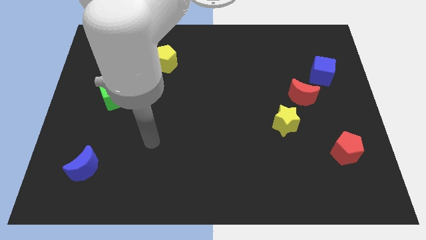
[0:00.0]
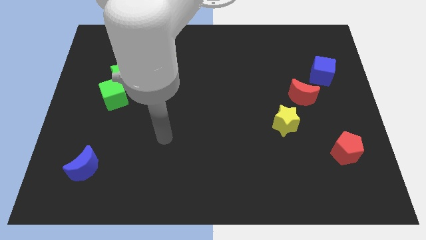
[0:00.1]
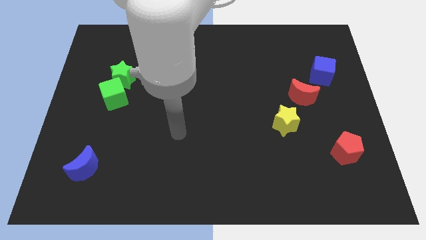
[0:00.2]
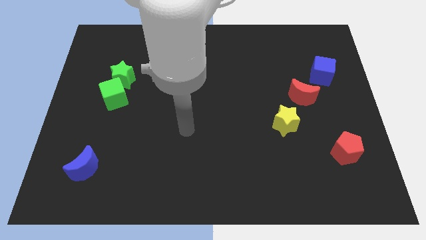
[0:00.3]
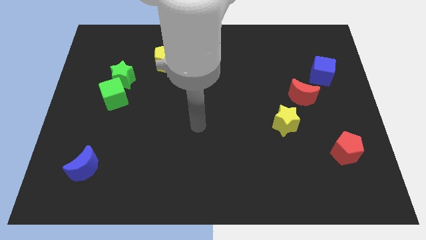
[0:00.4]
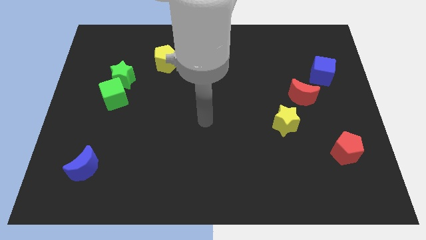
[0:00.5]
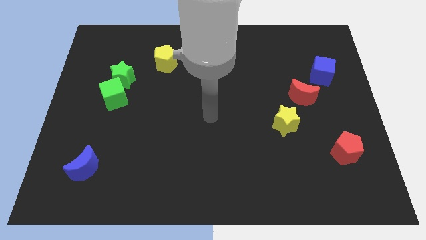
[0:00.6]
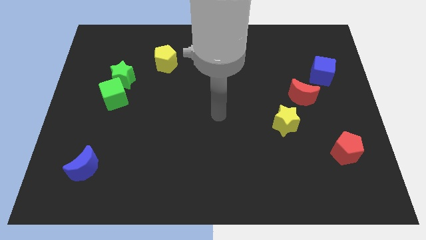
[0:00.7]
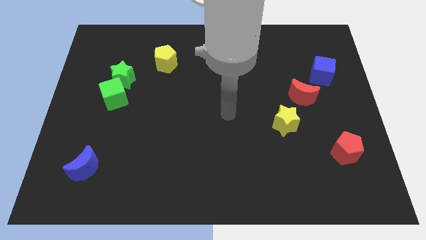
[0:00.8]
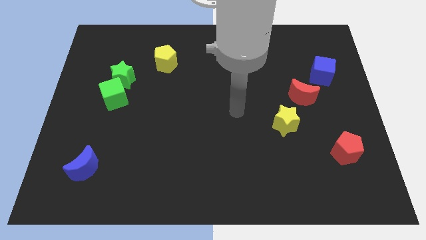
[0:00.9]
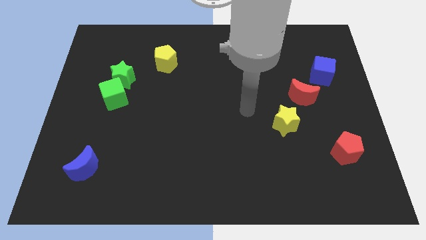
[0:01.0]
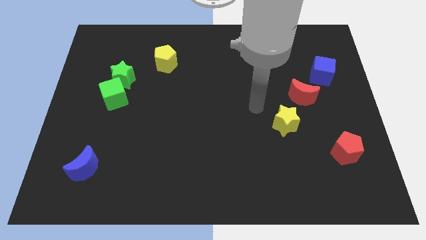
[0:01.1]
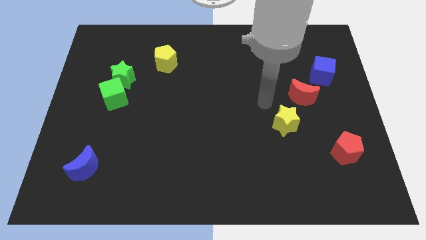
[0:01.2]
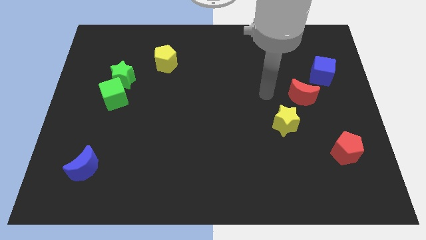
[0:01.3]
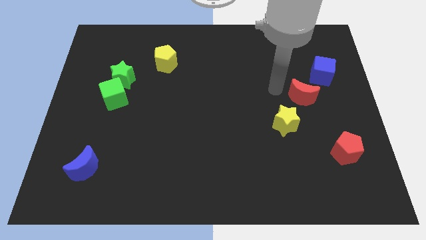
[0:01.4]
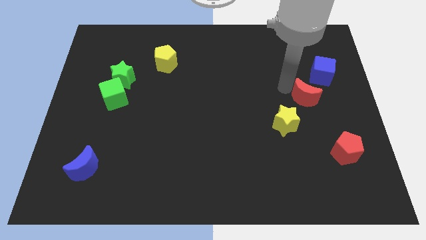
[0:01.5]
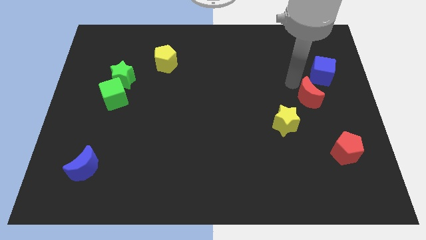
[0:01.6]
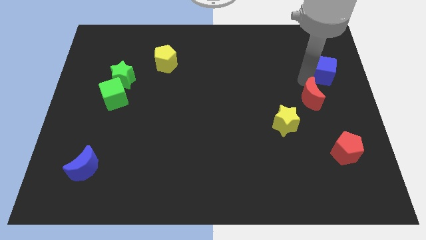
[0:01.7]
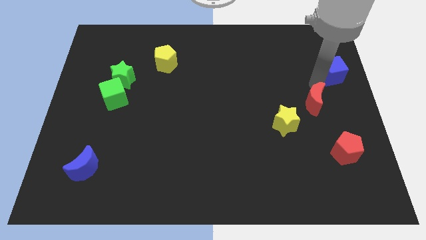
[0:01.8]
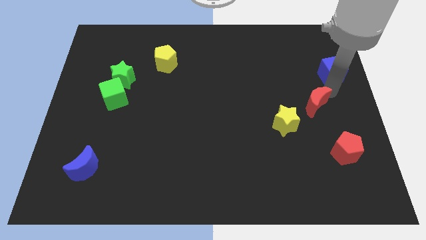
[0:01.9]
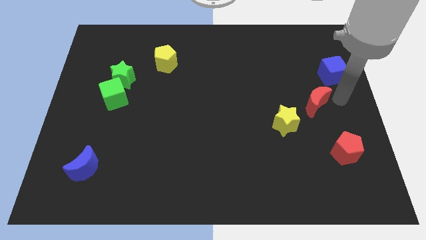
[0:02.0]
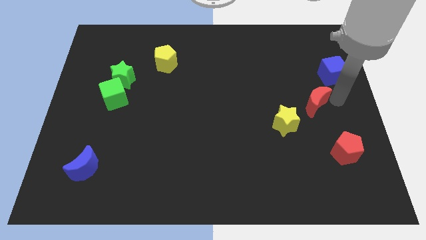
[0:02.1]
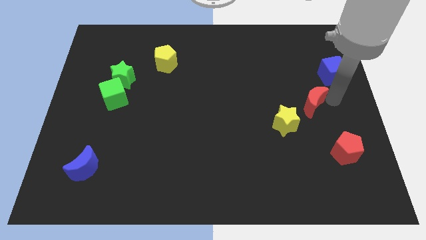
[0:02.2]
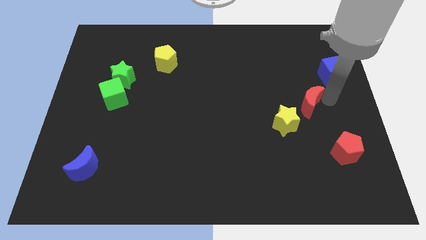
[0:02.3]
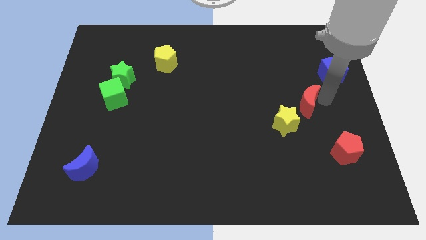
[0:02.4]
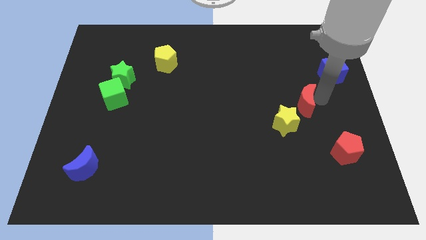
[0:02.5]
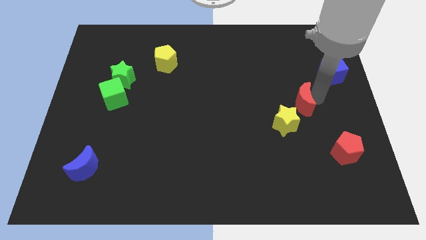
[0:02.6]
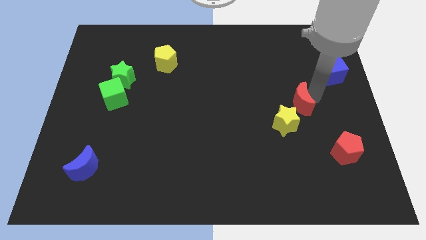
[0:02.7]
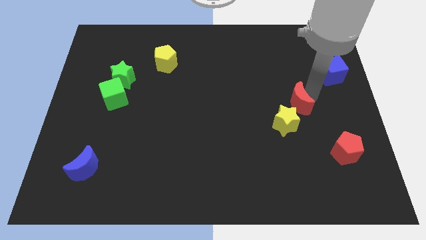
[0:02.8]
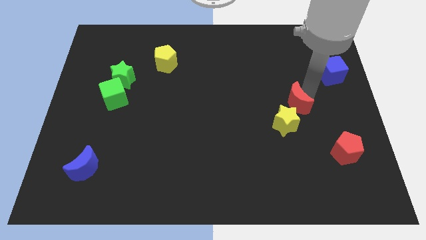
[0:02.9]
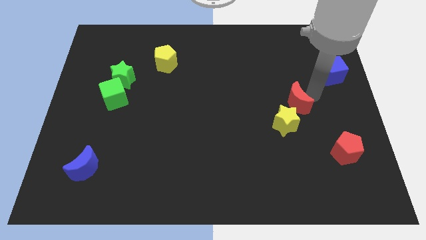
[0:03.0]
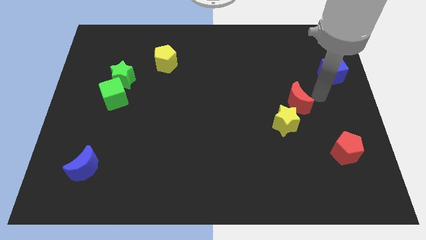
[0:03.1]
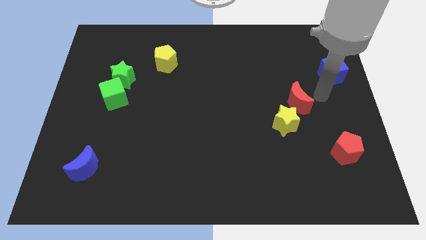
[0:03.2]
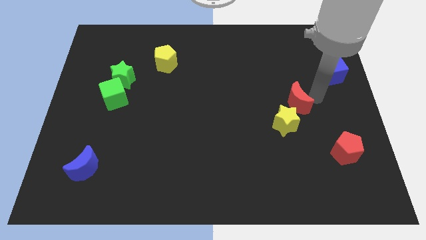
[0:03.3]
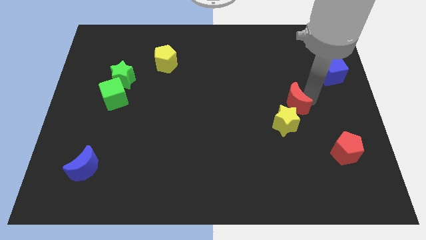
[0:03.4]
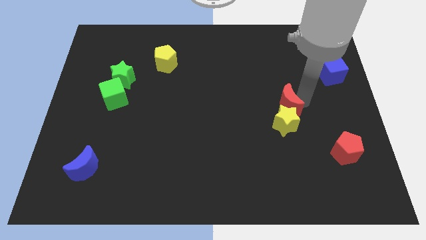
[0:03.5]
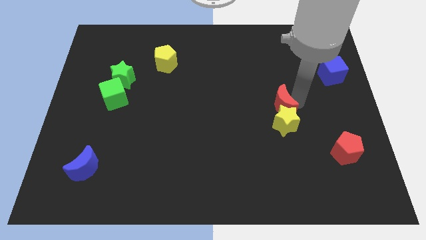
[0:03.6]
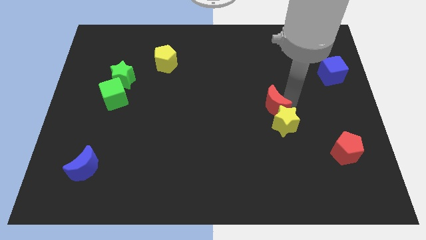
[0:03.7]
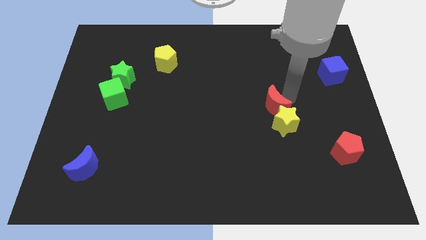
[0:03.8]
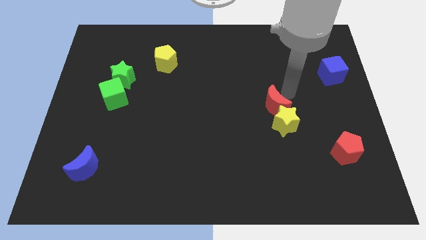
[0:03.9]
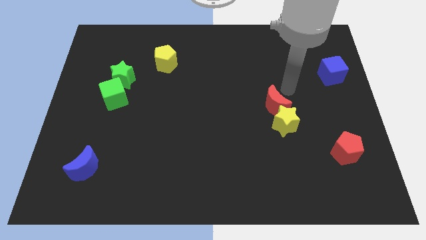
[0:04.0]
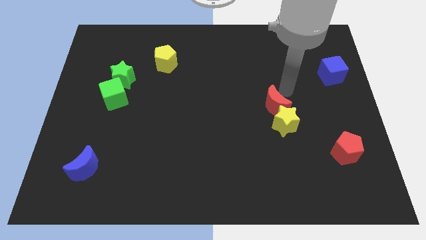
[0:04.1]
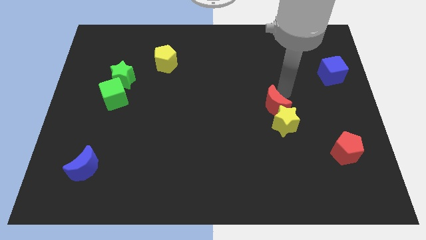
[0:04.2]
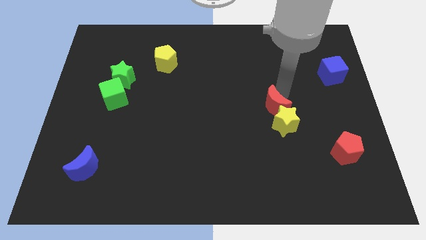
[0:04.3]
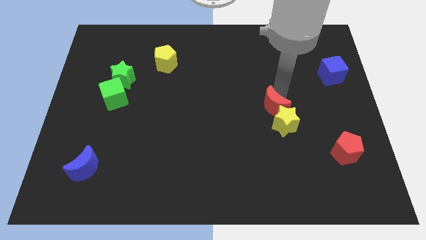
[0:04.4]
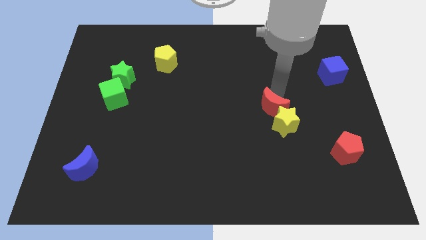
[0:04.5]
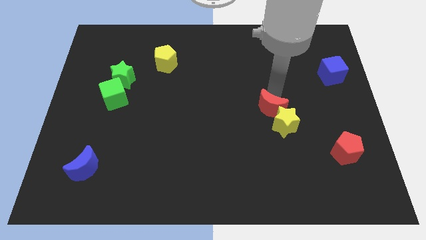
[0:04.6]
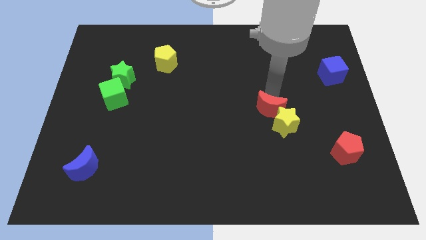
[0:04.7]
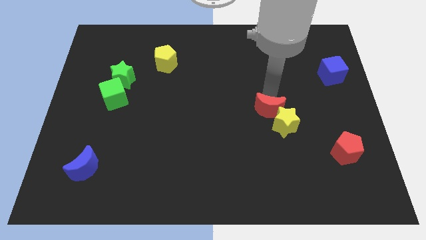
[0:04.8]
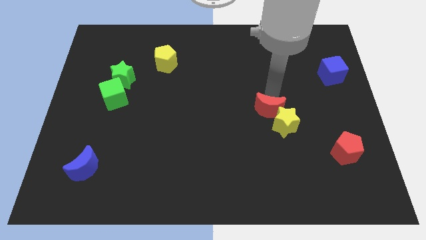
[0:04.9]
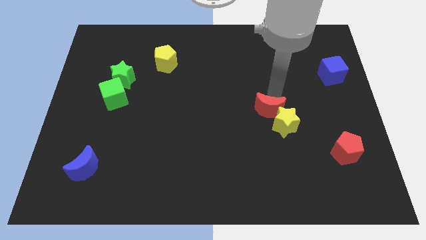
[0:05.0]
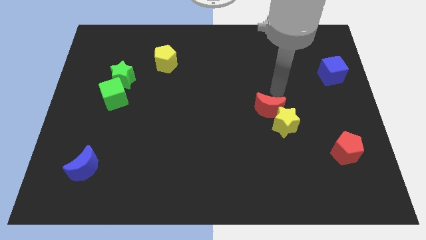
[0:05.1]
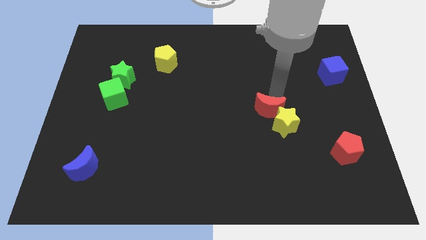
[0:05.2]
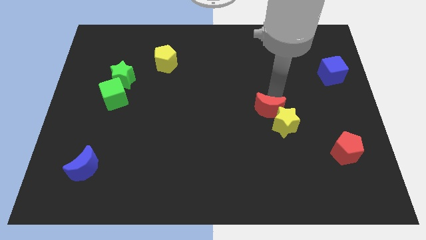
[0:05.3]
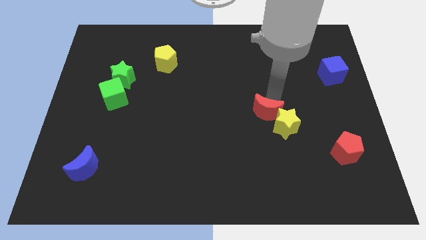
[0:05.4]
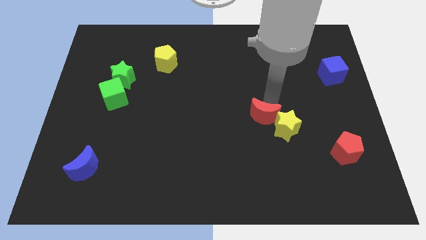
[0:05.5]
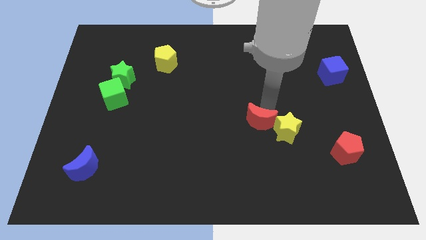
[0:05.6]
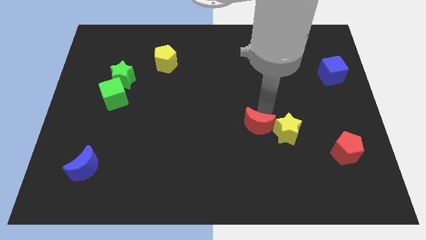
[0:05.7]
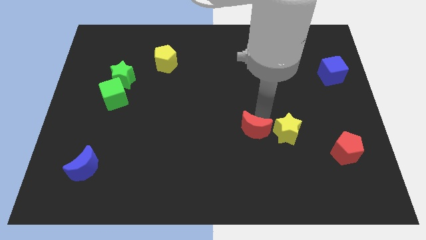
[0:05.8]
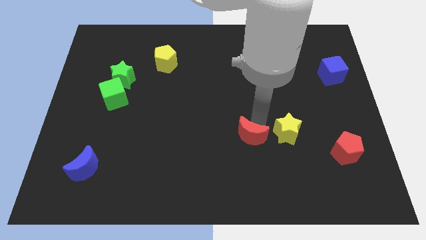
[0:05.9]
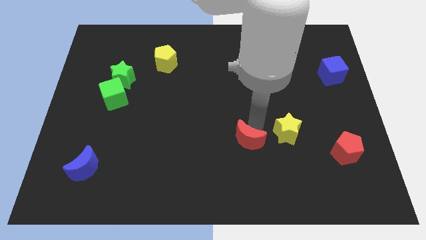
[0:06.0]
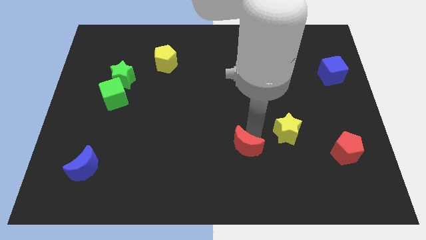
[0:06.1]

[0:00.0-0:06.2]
move the red moon diagonally down and left

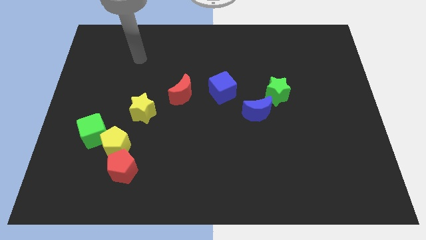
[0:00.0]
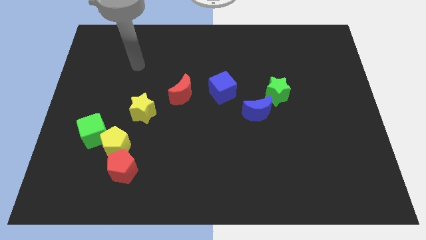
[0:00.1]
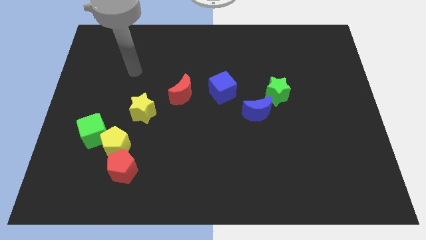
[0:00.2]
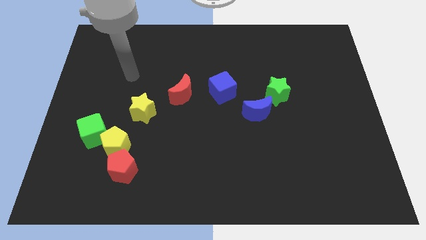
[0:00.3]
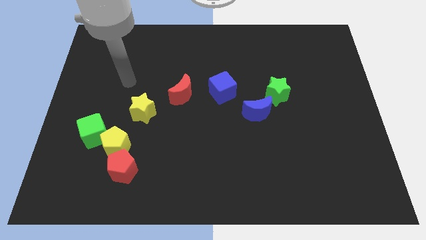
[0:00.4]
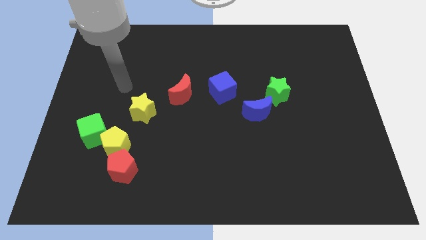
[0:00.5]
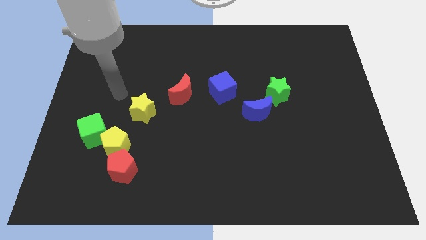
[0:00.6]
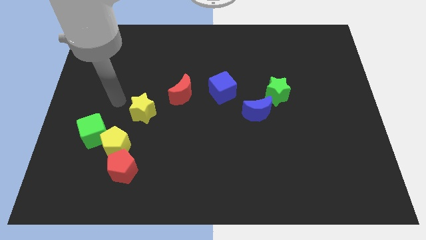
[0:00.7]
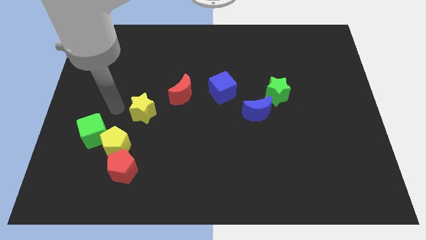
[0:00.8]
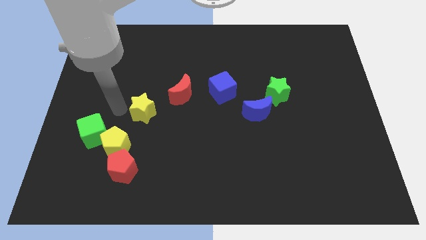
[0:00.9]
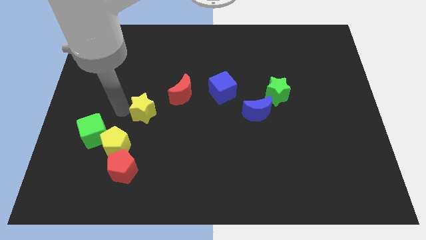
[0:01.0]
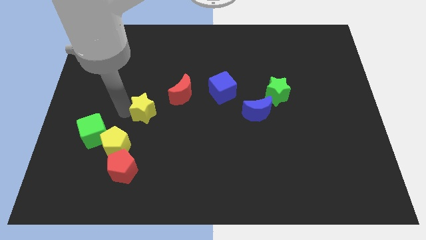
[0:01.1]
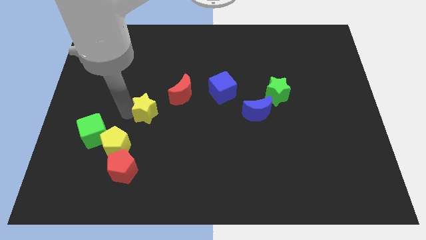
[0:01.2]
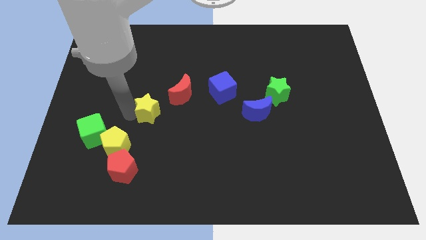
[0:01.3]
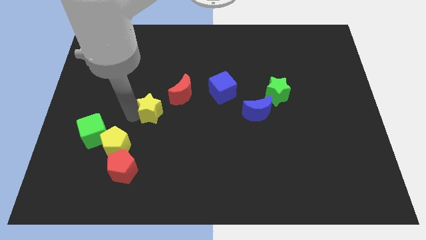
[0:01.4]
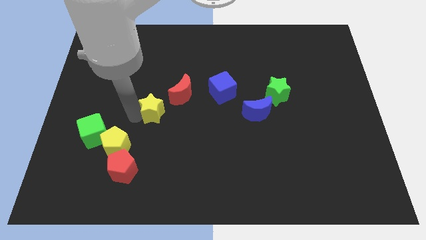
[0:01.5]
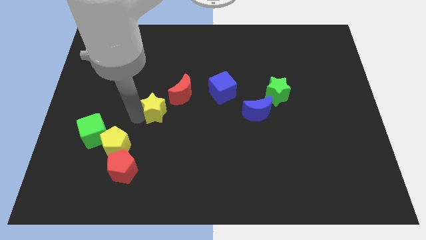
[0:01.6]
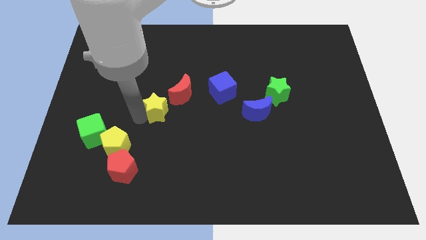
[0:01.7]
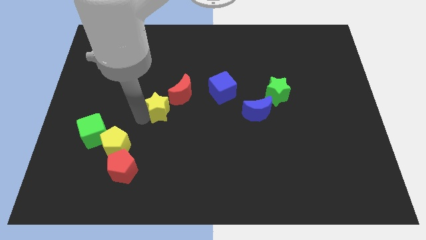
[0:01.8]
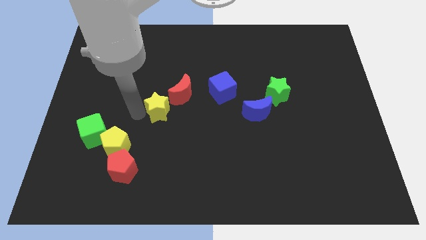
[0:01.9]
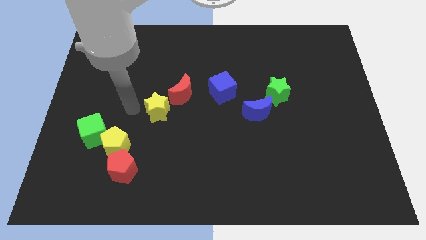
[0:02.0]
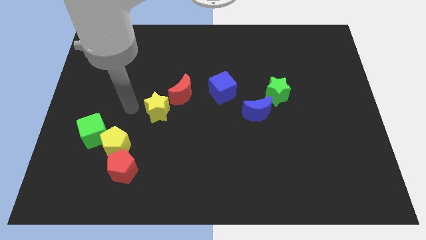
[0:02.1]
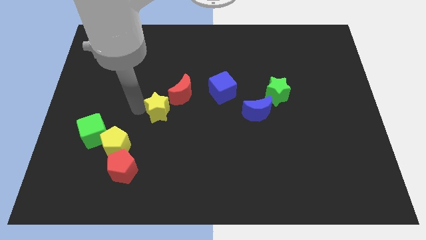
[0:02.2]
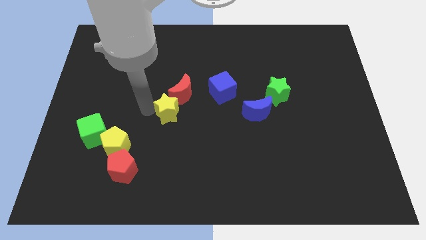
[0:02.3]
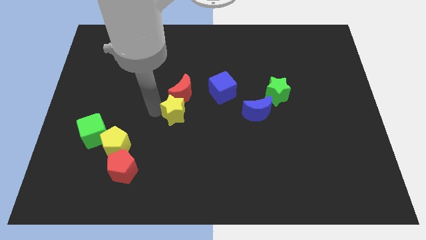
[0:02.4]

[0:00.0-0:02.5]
slide the yellow star a bit right
